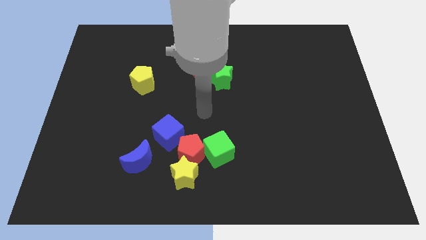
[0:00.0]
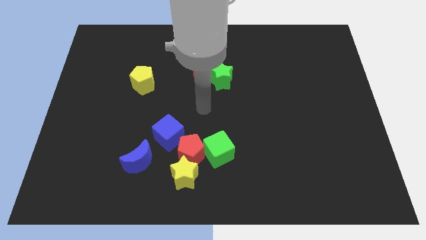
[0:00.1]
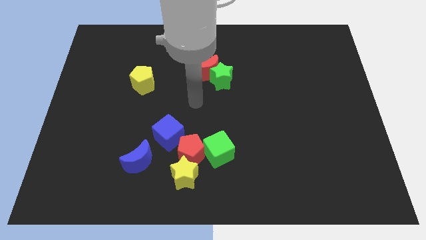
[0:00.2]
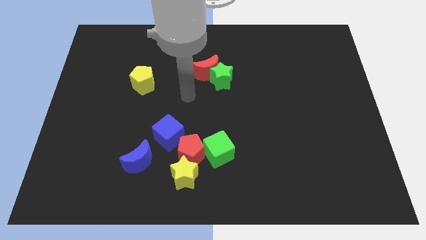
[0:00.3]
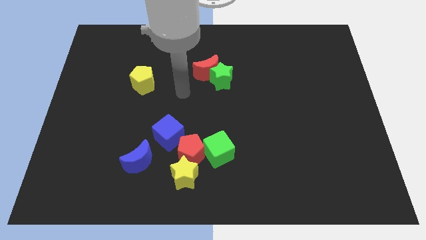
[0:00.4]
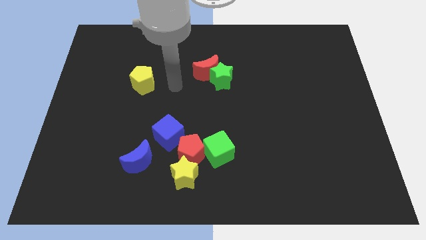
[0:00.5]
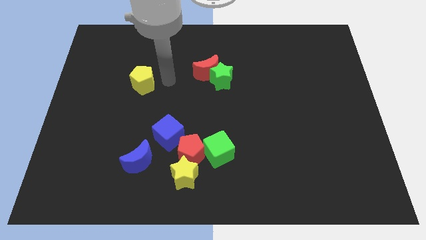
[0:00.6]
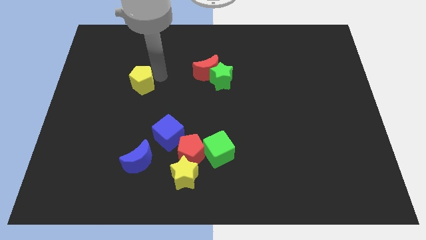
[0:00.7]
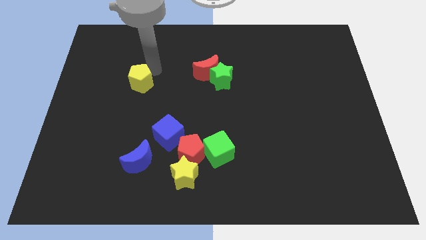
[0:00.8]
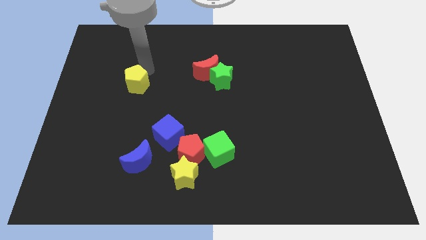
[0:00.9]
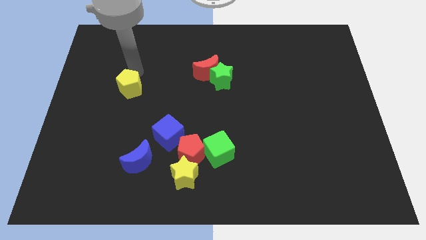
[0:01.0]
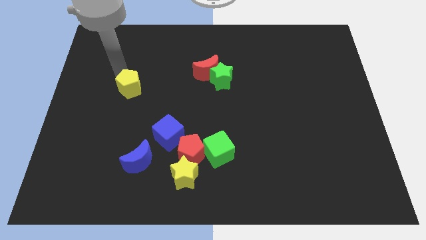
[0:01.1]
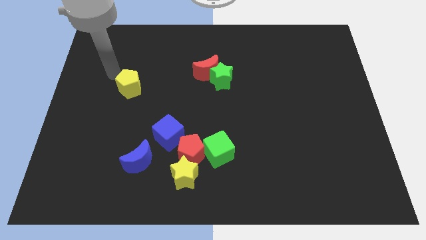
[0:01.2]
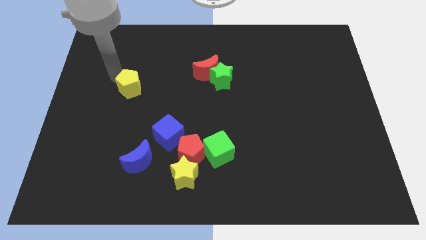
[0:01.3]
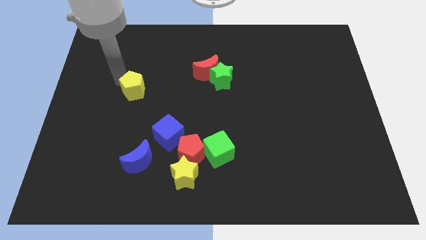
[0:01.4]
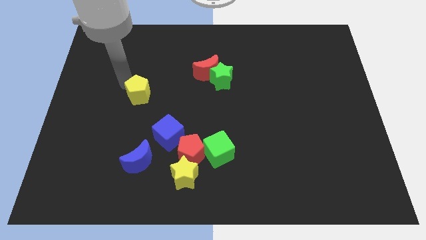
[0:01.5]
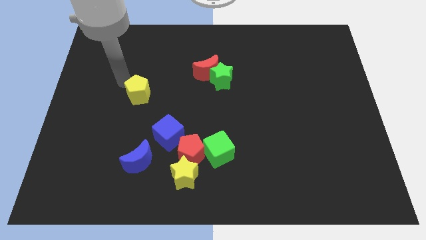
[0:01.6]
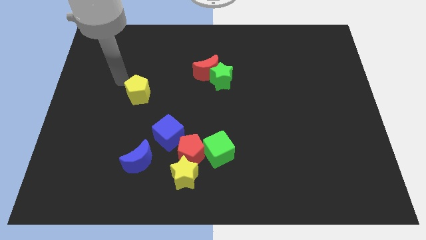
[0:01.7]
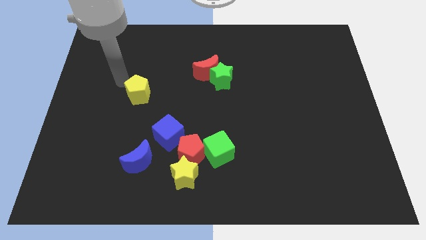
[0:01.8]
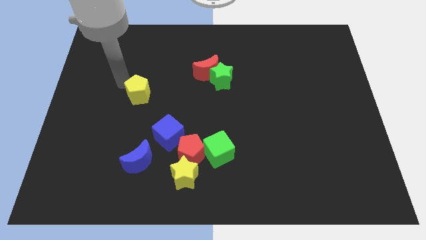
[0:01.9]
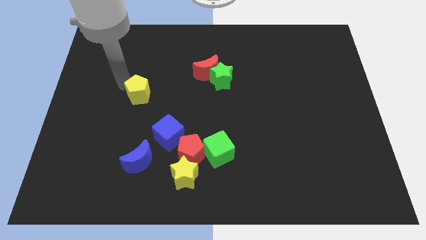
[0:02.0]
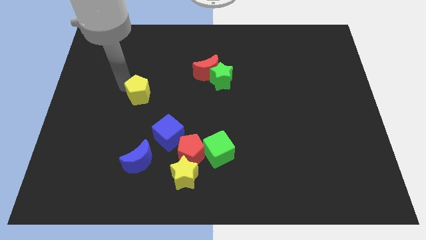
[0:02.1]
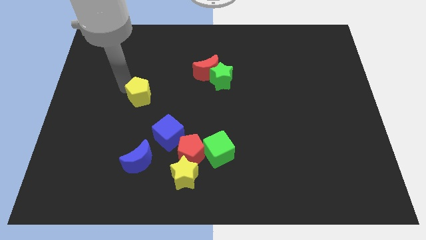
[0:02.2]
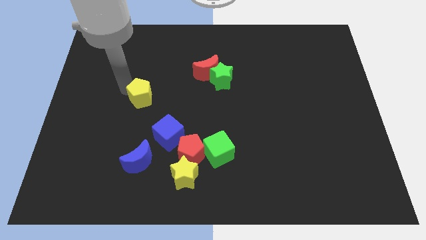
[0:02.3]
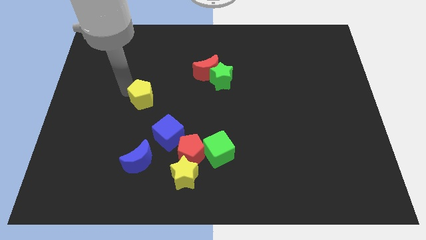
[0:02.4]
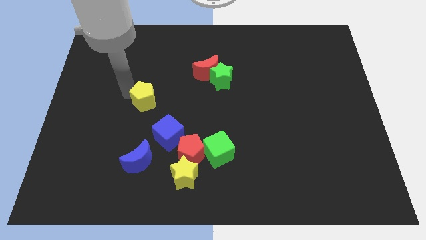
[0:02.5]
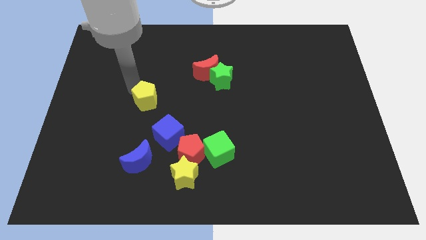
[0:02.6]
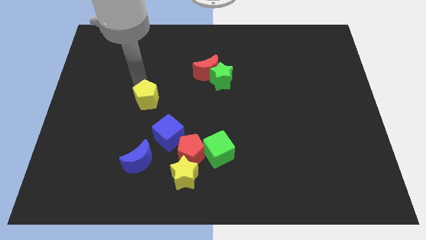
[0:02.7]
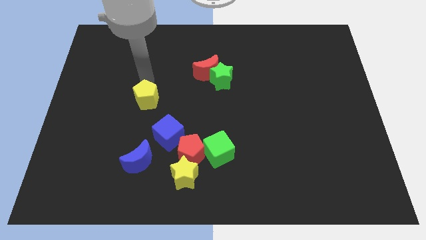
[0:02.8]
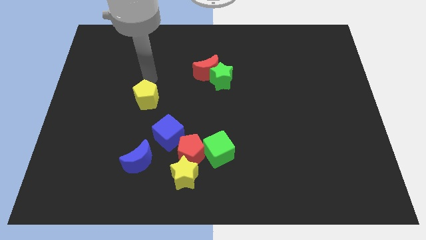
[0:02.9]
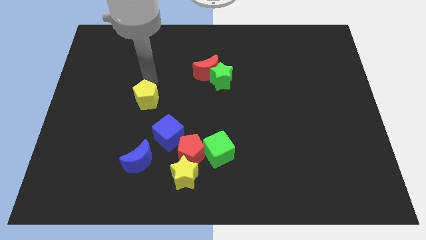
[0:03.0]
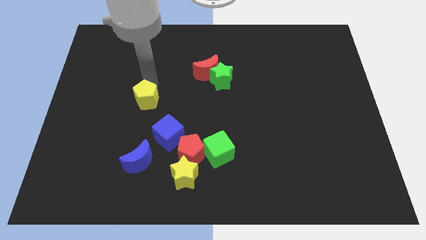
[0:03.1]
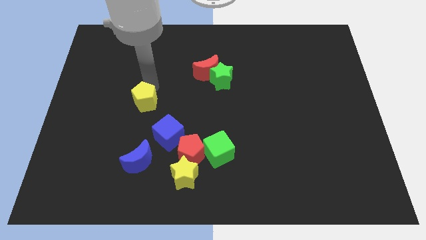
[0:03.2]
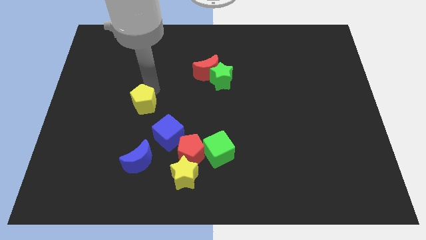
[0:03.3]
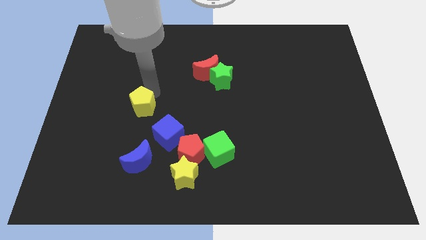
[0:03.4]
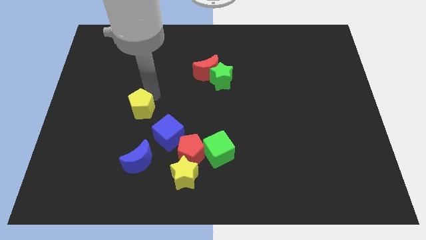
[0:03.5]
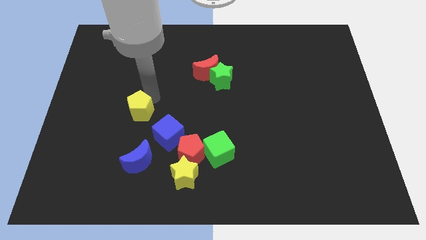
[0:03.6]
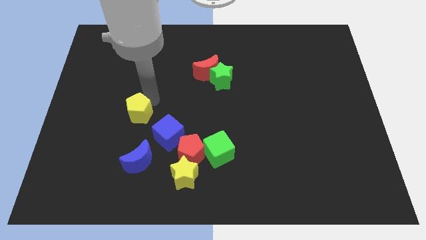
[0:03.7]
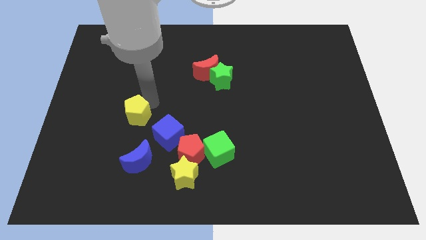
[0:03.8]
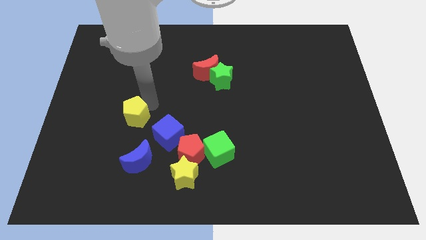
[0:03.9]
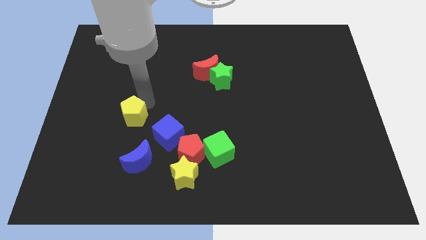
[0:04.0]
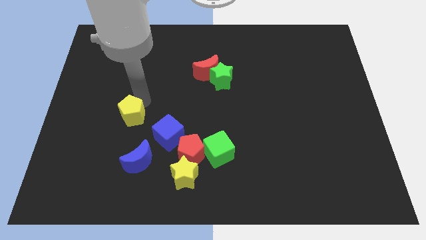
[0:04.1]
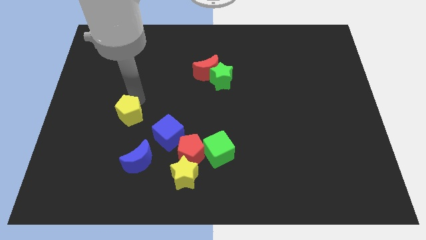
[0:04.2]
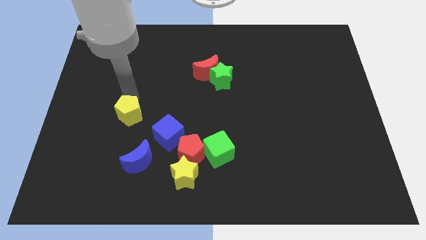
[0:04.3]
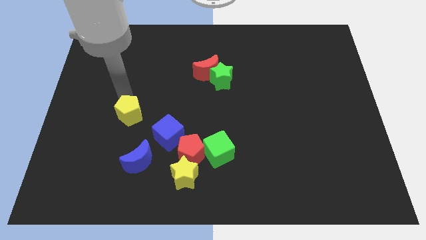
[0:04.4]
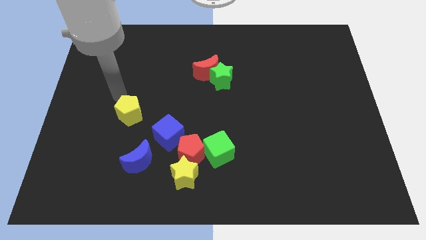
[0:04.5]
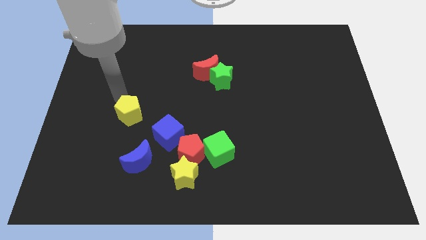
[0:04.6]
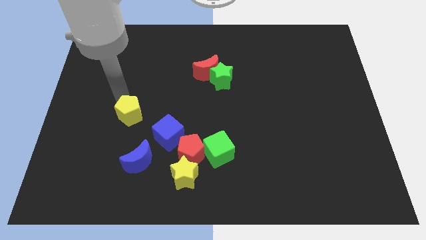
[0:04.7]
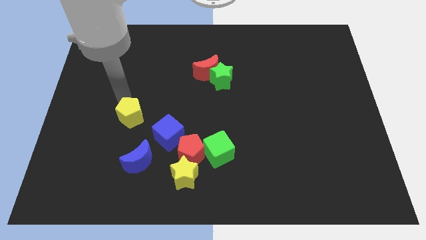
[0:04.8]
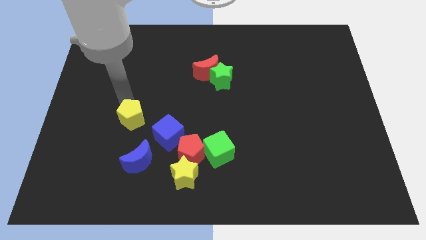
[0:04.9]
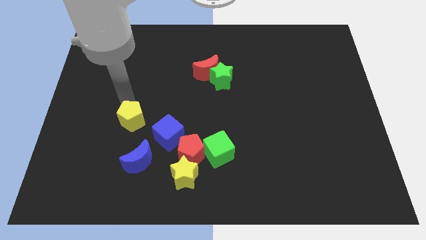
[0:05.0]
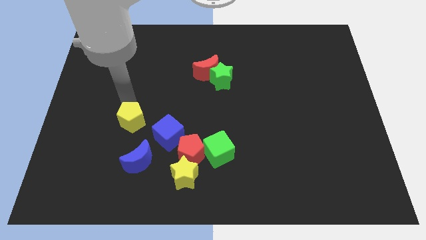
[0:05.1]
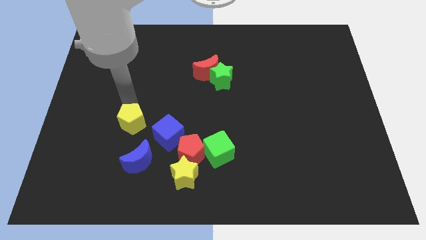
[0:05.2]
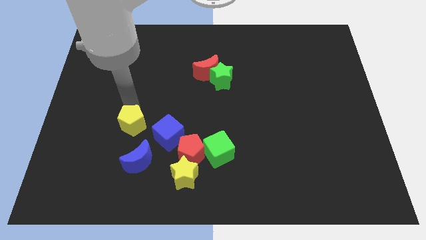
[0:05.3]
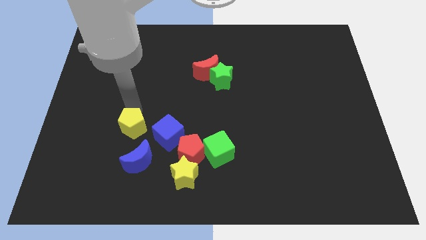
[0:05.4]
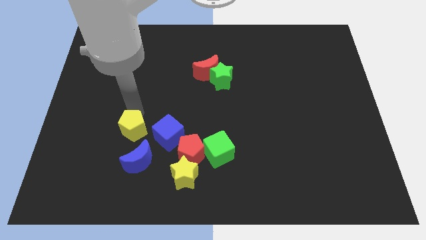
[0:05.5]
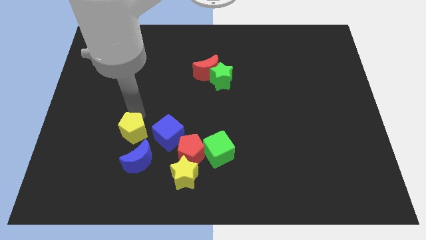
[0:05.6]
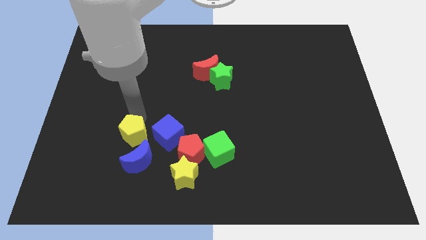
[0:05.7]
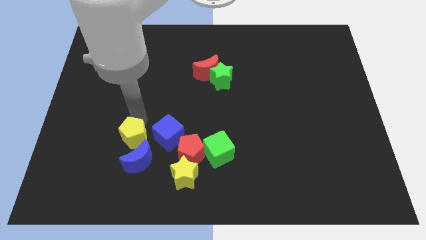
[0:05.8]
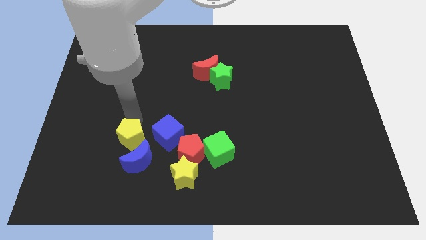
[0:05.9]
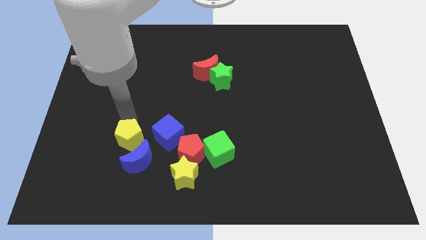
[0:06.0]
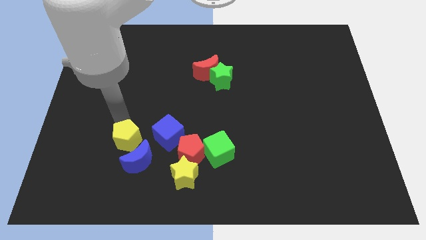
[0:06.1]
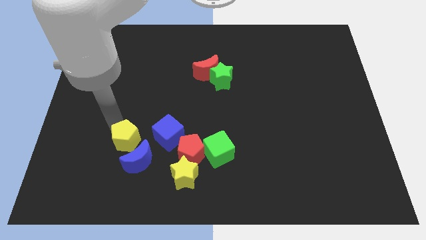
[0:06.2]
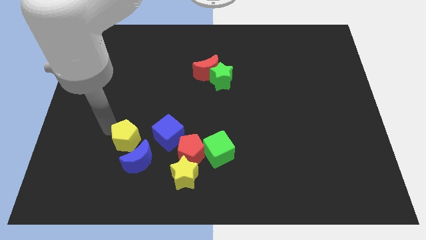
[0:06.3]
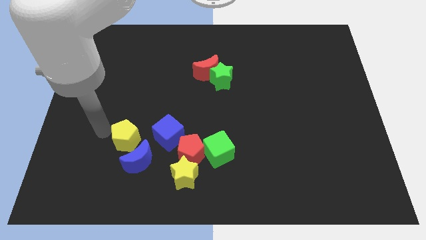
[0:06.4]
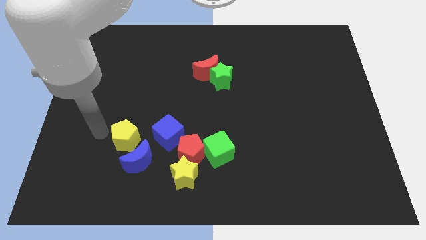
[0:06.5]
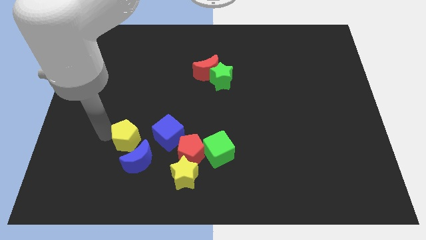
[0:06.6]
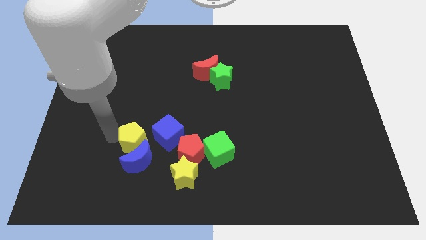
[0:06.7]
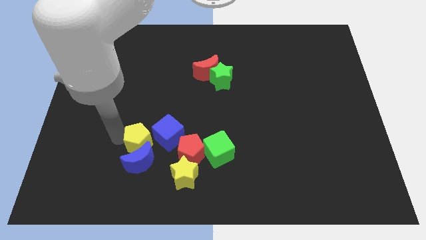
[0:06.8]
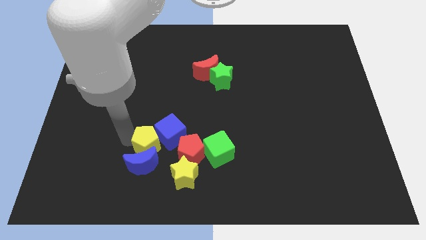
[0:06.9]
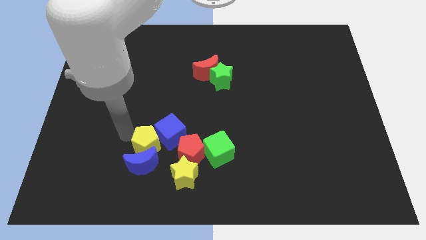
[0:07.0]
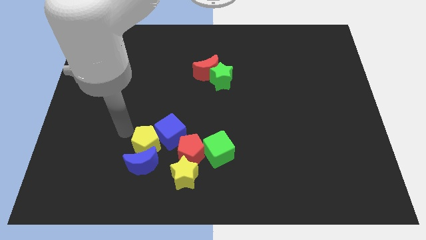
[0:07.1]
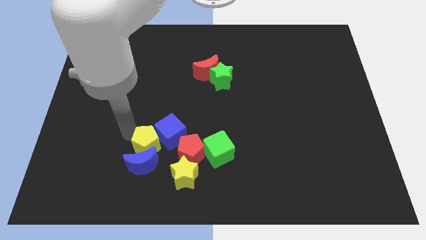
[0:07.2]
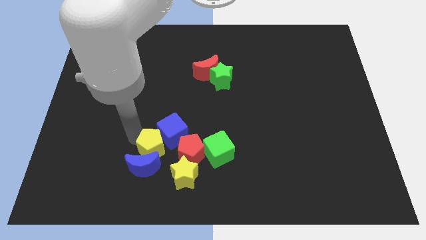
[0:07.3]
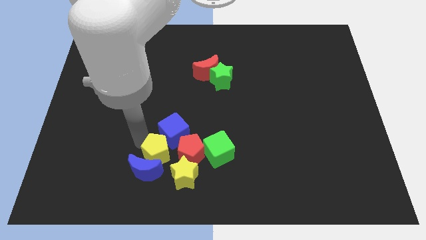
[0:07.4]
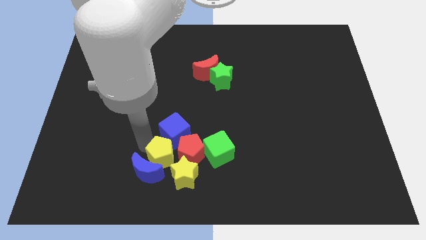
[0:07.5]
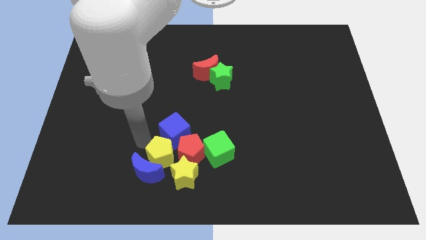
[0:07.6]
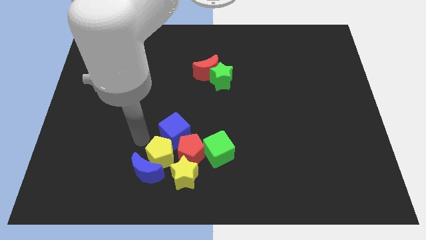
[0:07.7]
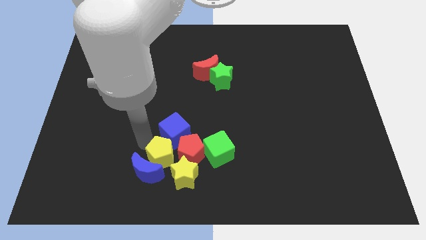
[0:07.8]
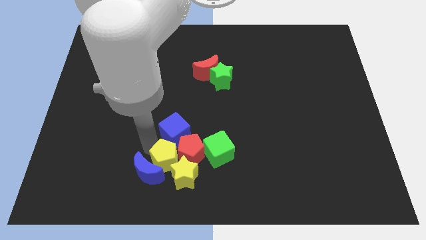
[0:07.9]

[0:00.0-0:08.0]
push the yellow pentagon towards the yellow star
